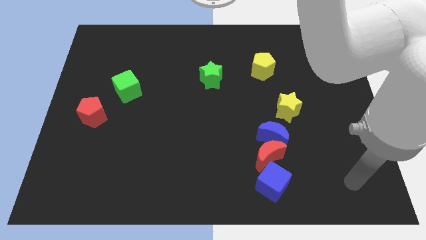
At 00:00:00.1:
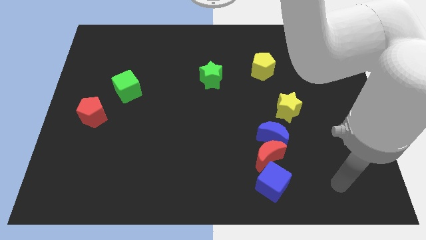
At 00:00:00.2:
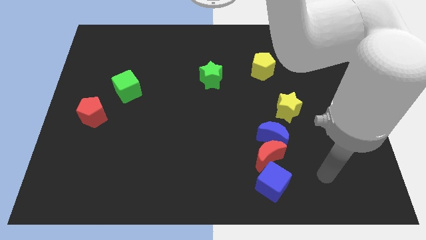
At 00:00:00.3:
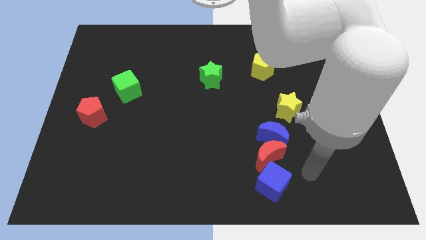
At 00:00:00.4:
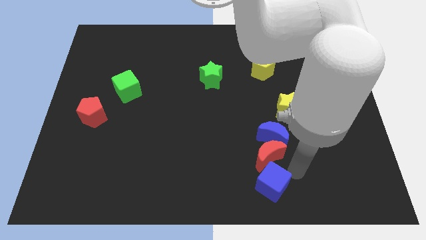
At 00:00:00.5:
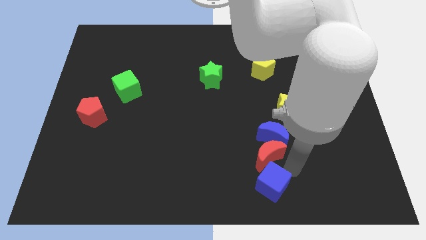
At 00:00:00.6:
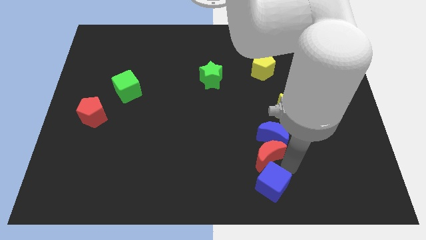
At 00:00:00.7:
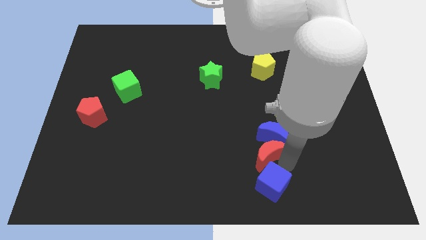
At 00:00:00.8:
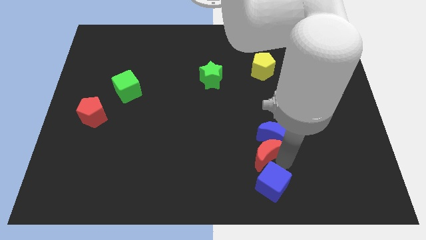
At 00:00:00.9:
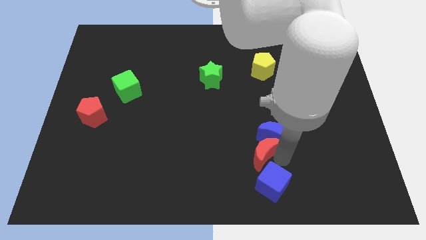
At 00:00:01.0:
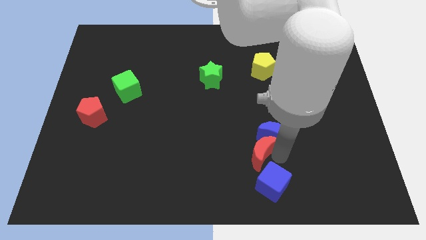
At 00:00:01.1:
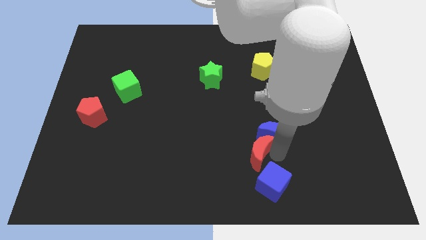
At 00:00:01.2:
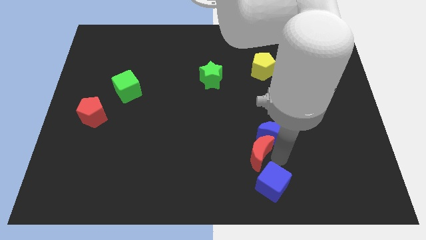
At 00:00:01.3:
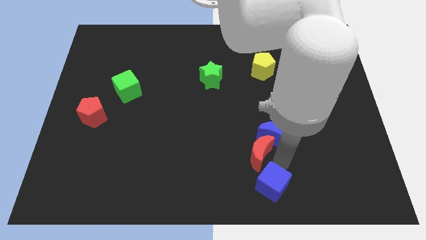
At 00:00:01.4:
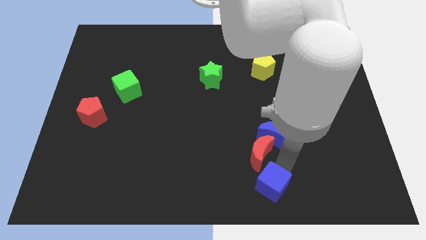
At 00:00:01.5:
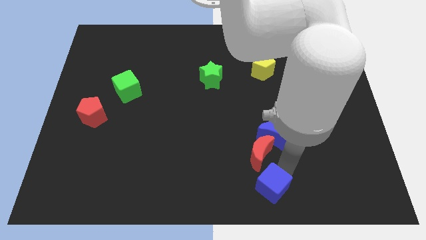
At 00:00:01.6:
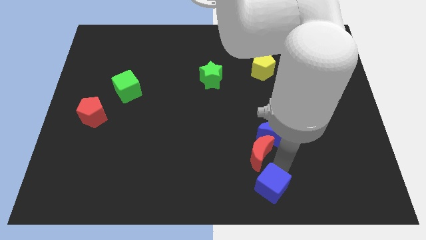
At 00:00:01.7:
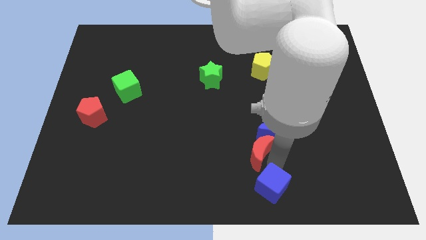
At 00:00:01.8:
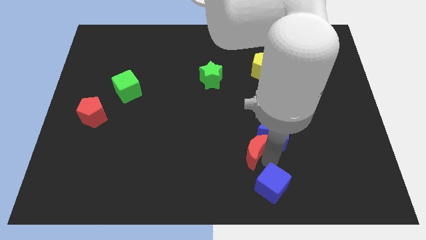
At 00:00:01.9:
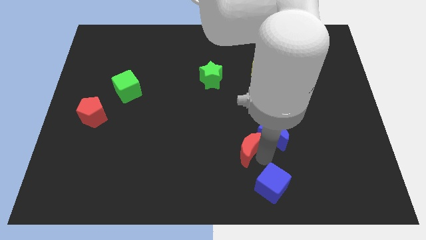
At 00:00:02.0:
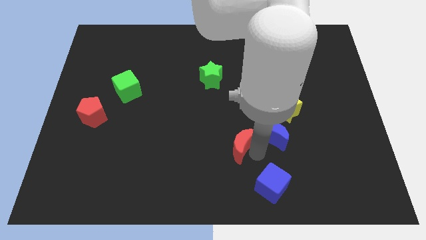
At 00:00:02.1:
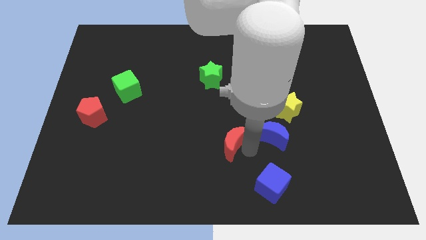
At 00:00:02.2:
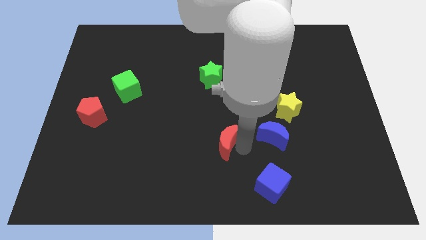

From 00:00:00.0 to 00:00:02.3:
move the red moon away from the blue moon and blue cube

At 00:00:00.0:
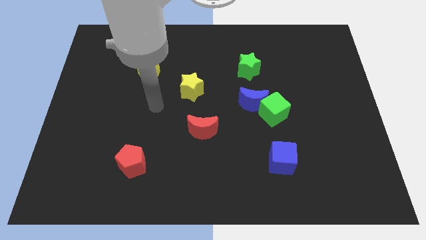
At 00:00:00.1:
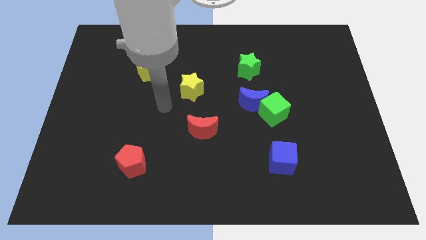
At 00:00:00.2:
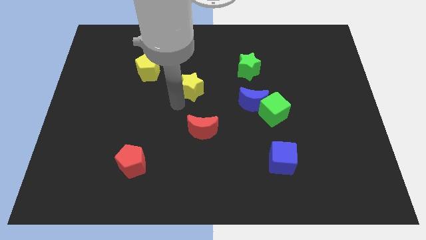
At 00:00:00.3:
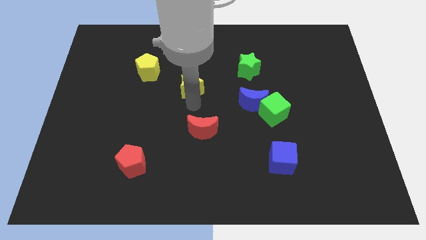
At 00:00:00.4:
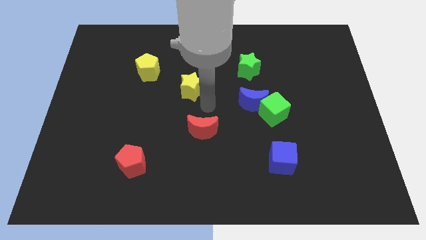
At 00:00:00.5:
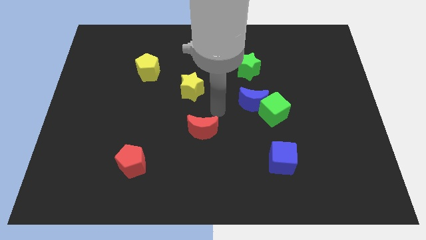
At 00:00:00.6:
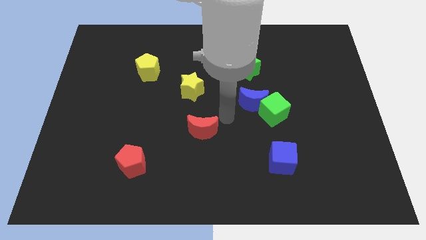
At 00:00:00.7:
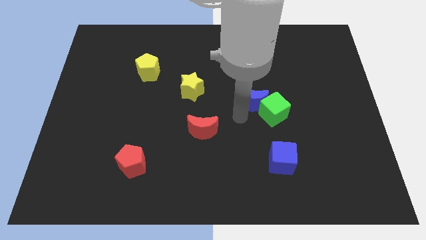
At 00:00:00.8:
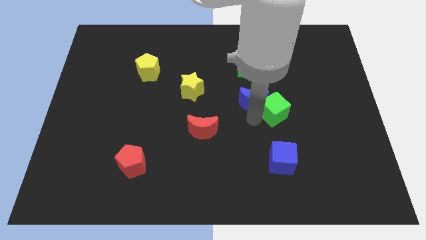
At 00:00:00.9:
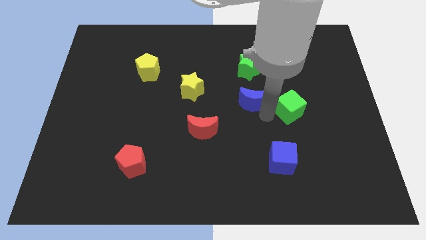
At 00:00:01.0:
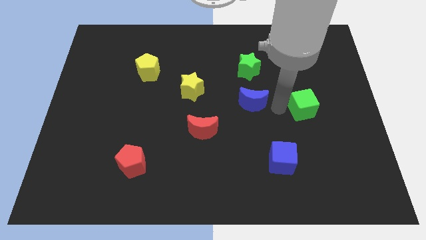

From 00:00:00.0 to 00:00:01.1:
separate the blue moon from the green cube

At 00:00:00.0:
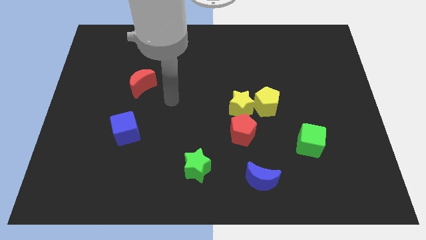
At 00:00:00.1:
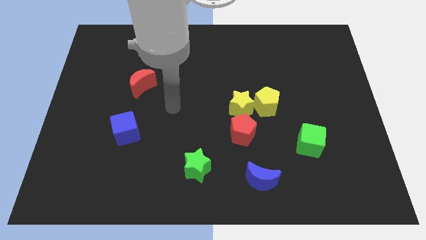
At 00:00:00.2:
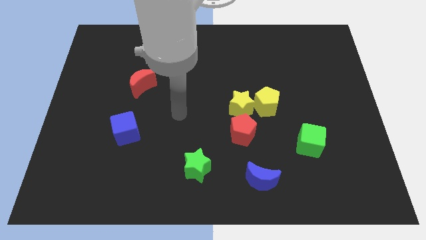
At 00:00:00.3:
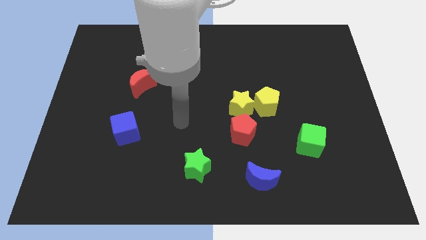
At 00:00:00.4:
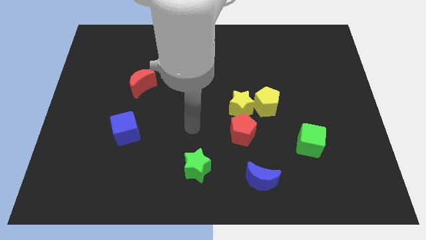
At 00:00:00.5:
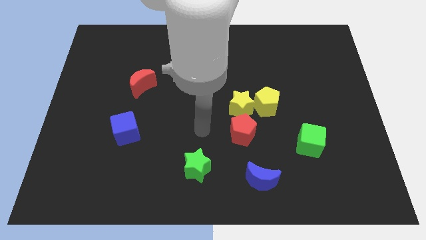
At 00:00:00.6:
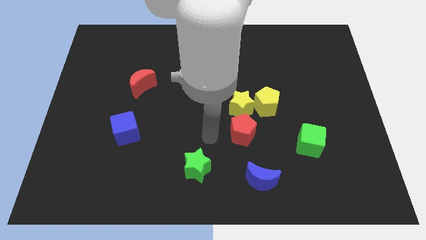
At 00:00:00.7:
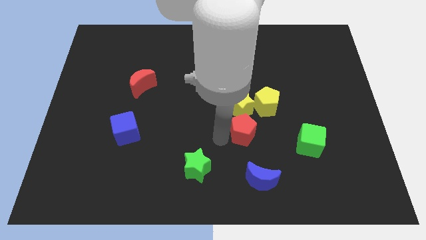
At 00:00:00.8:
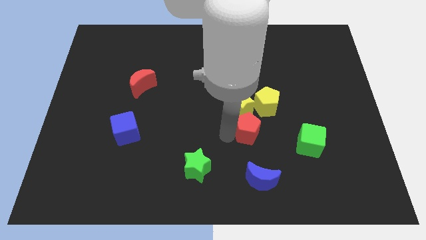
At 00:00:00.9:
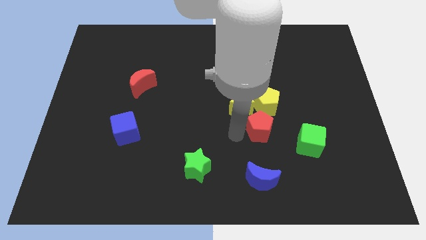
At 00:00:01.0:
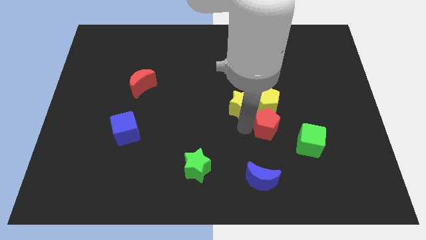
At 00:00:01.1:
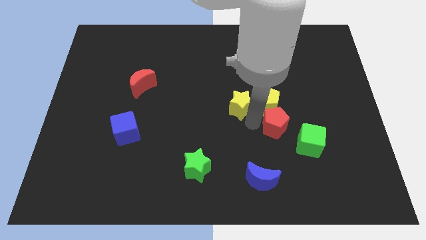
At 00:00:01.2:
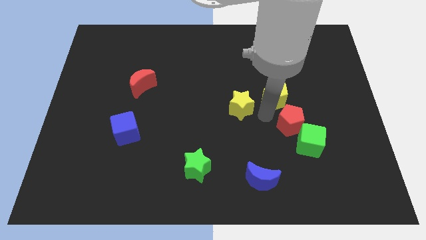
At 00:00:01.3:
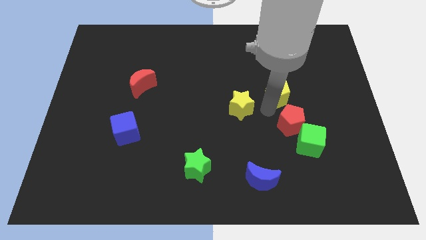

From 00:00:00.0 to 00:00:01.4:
move the yellow star away from the yellow pentagon and red pentagon

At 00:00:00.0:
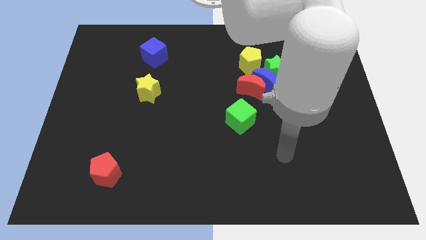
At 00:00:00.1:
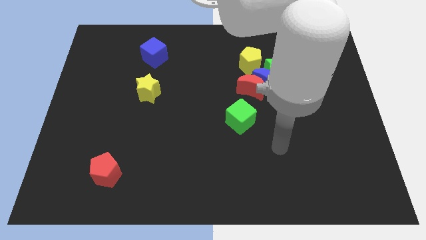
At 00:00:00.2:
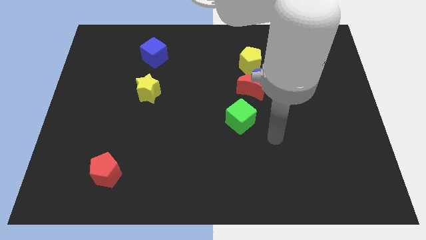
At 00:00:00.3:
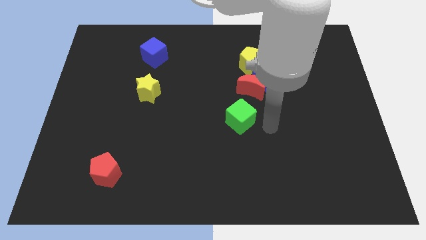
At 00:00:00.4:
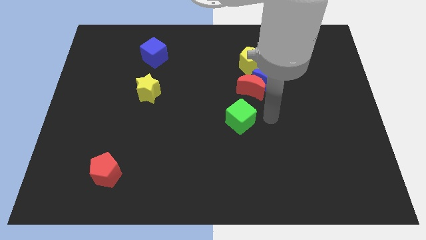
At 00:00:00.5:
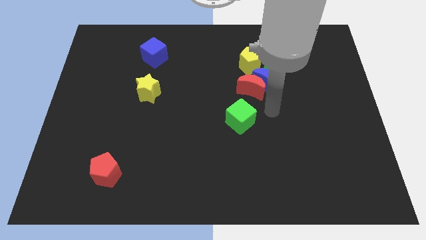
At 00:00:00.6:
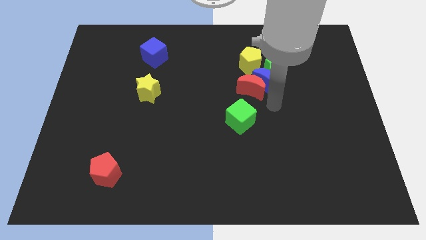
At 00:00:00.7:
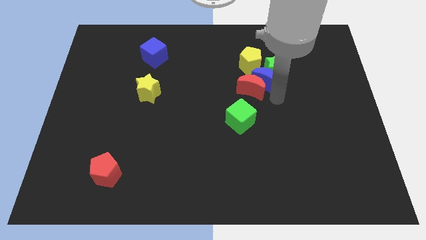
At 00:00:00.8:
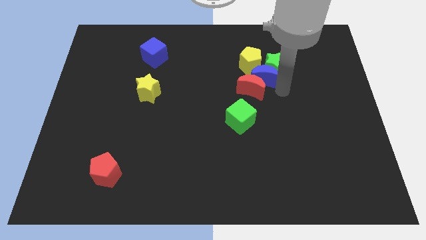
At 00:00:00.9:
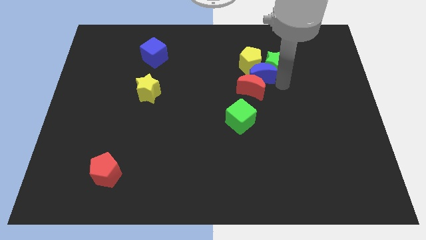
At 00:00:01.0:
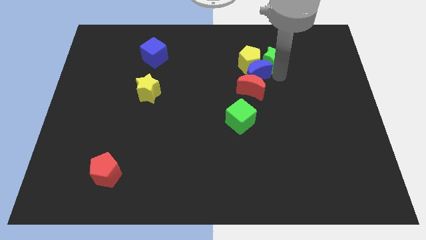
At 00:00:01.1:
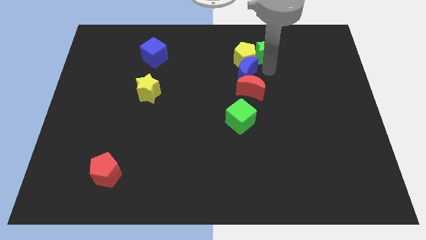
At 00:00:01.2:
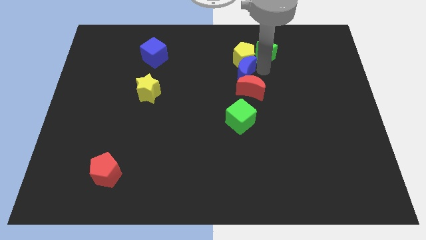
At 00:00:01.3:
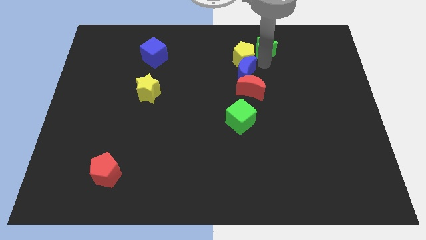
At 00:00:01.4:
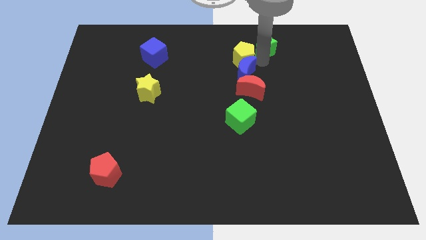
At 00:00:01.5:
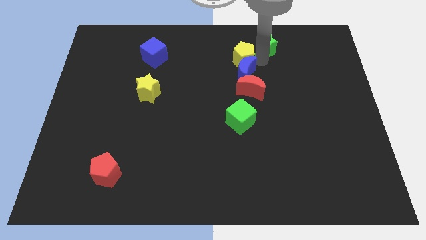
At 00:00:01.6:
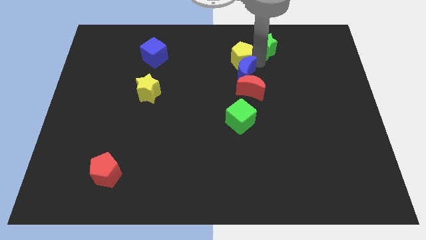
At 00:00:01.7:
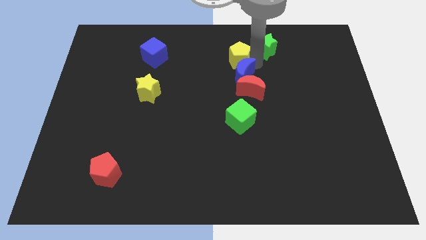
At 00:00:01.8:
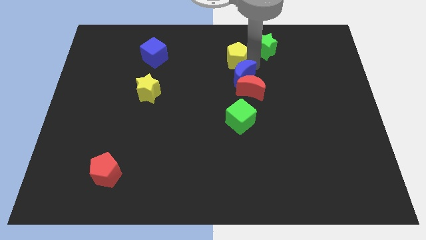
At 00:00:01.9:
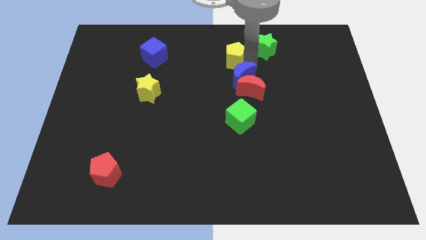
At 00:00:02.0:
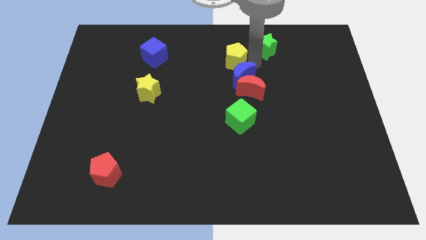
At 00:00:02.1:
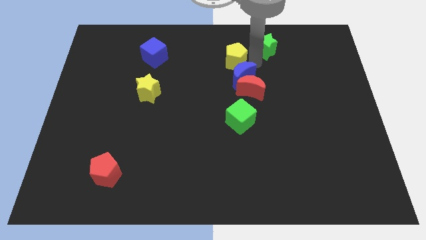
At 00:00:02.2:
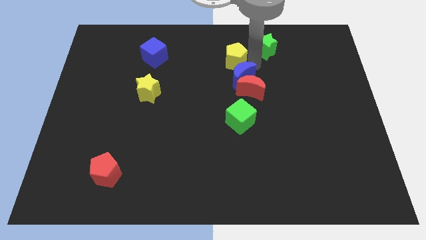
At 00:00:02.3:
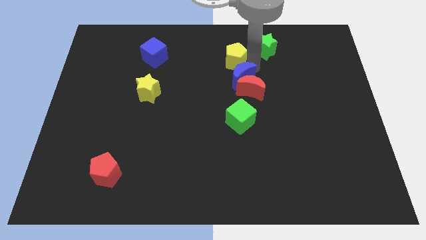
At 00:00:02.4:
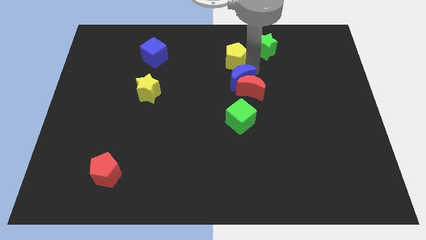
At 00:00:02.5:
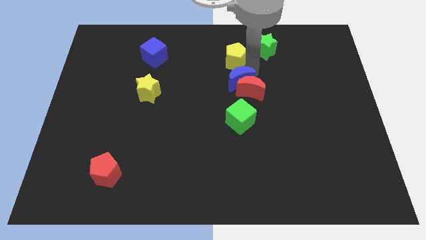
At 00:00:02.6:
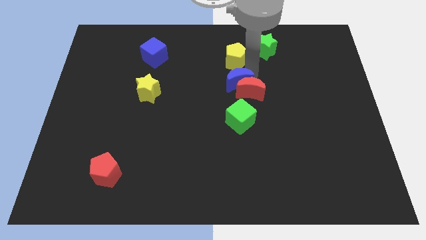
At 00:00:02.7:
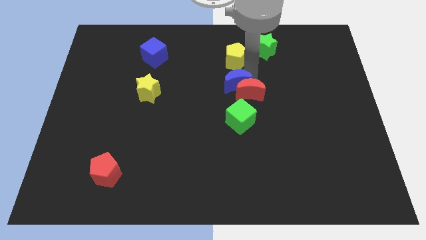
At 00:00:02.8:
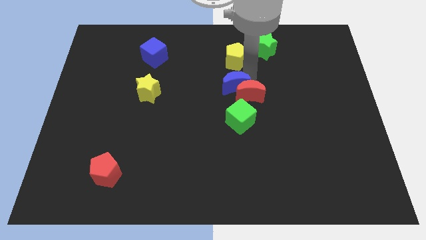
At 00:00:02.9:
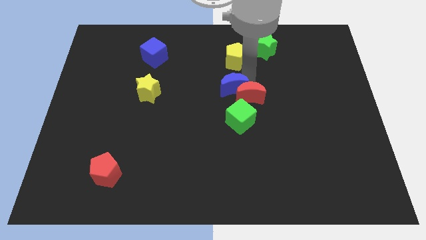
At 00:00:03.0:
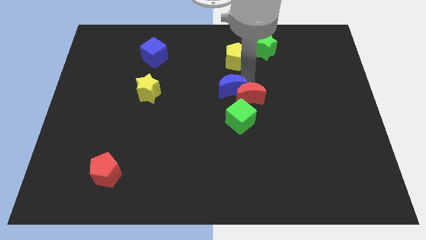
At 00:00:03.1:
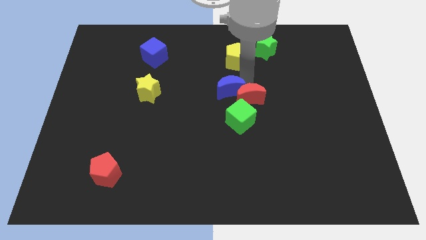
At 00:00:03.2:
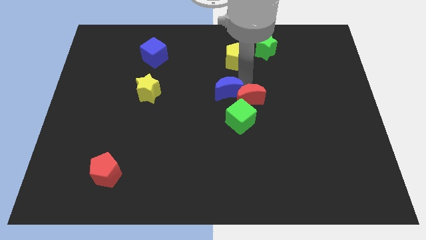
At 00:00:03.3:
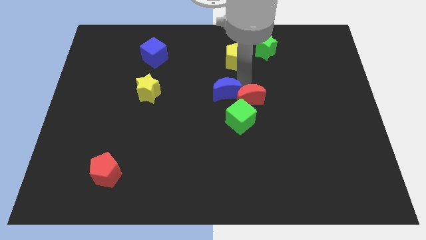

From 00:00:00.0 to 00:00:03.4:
move the blue moon away from the clump

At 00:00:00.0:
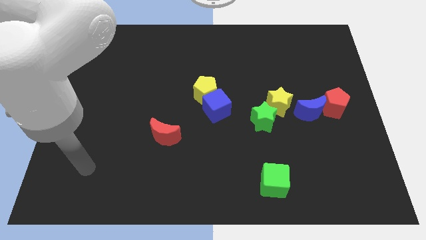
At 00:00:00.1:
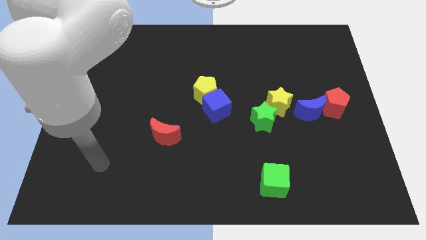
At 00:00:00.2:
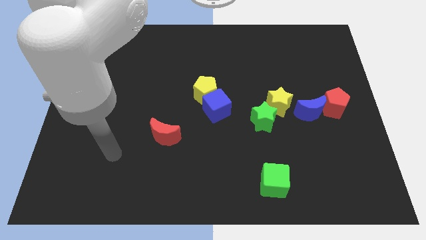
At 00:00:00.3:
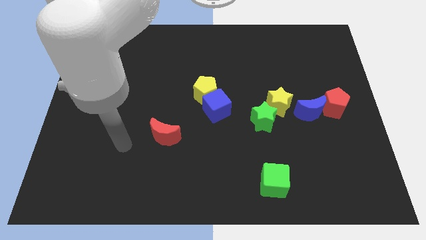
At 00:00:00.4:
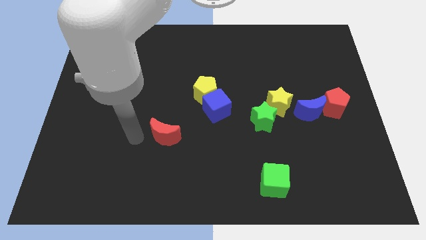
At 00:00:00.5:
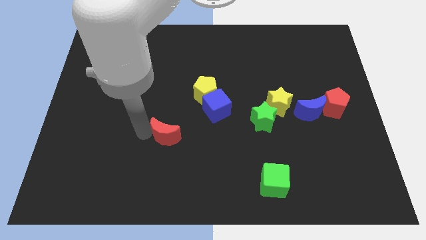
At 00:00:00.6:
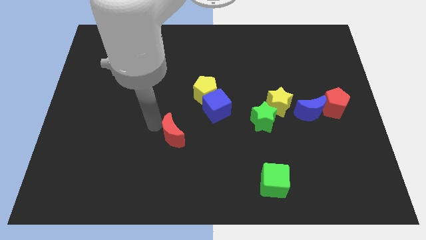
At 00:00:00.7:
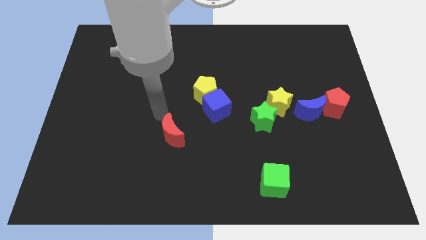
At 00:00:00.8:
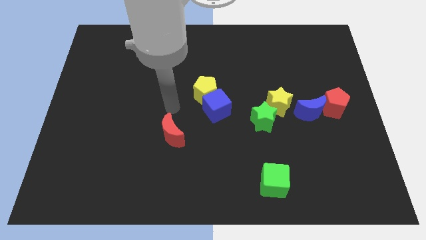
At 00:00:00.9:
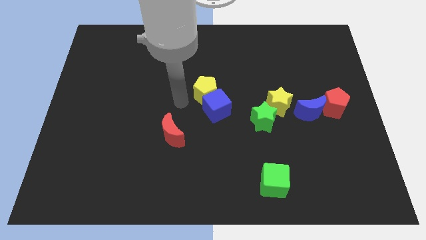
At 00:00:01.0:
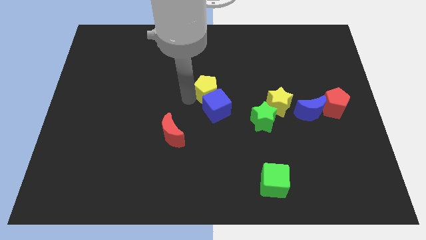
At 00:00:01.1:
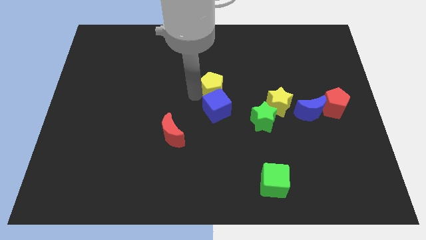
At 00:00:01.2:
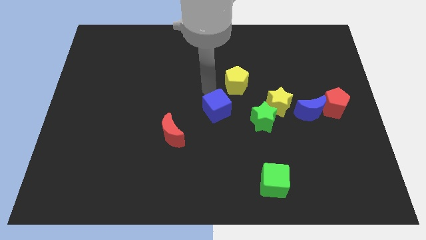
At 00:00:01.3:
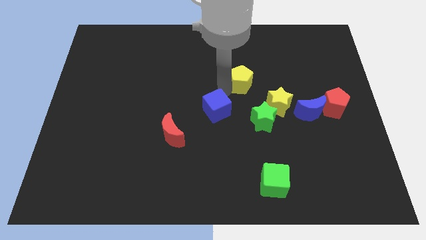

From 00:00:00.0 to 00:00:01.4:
move the blue cube away from the yellow pentagon
